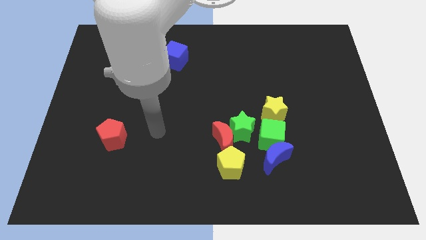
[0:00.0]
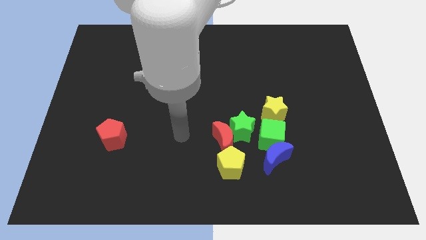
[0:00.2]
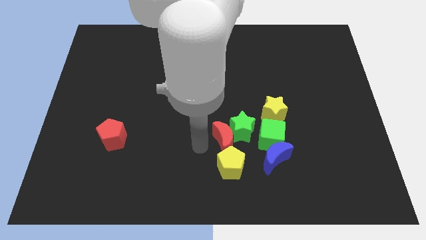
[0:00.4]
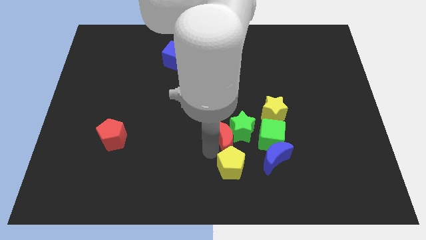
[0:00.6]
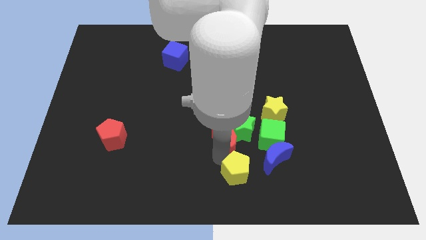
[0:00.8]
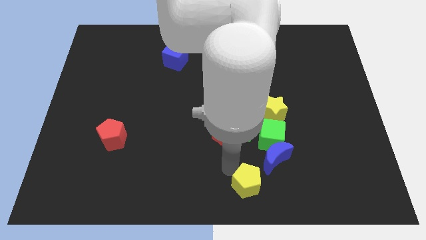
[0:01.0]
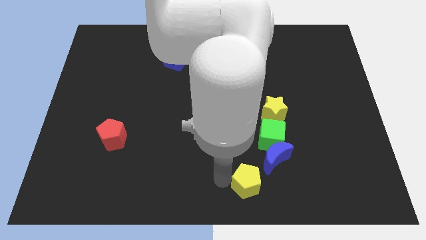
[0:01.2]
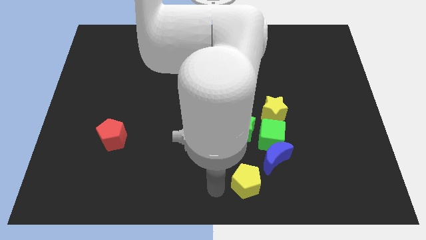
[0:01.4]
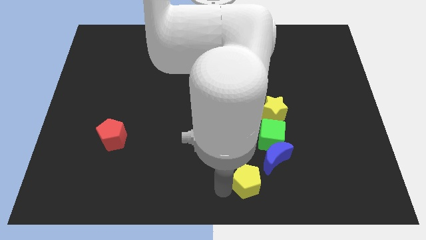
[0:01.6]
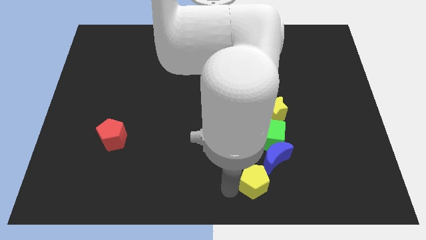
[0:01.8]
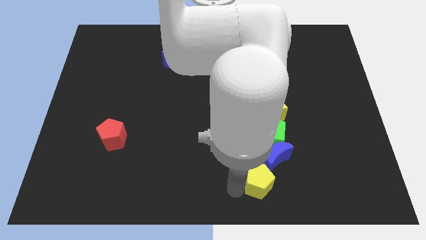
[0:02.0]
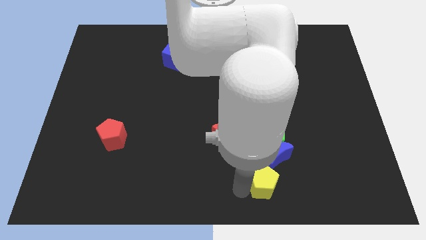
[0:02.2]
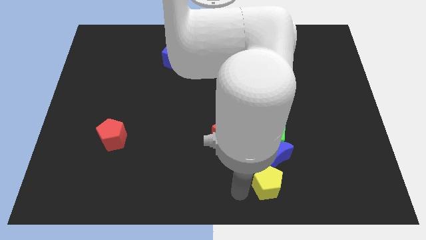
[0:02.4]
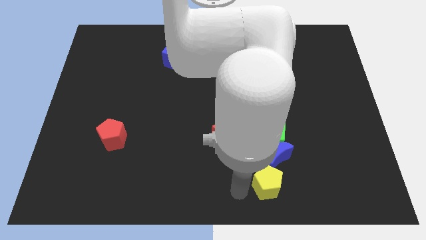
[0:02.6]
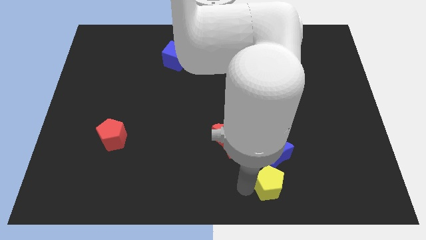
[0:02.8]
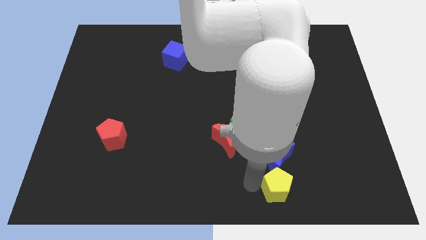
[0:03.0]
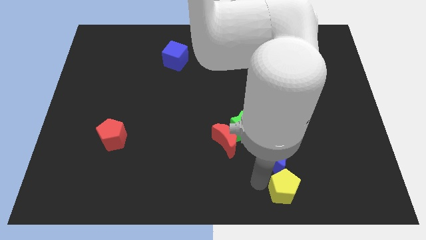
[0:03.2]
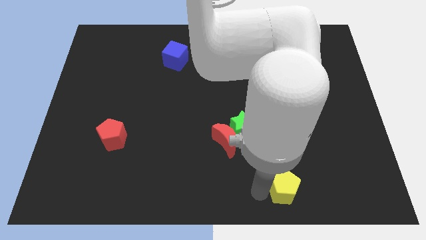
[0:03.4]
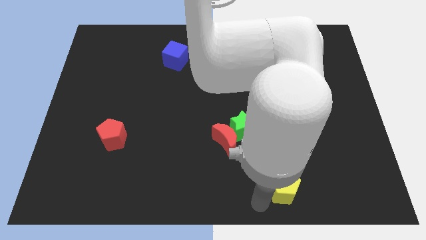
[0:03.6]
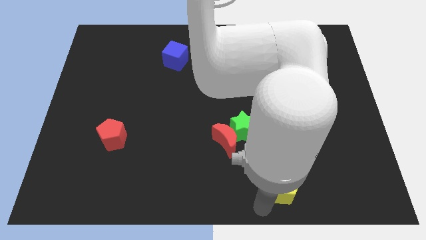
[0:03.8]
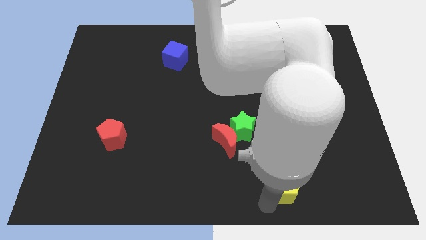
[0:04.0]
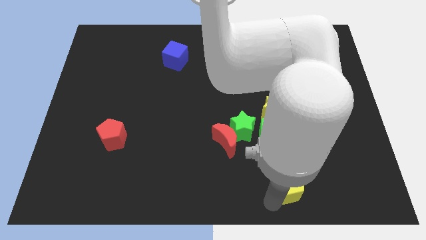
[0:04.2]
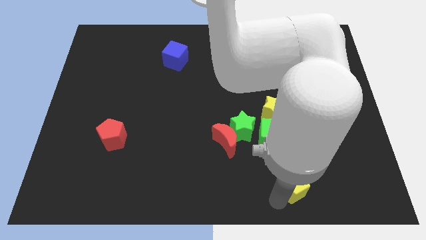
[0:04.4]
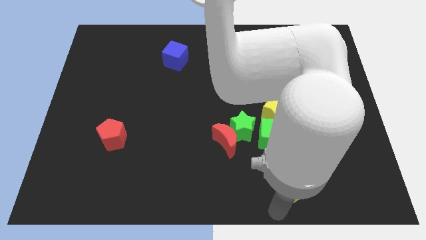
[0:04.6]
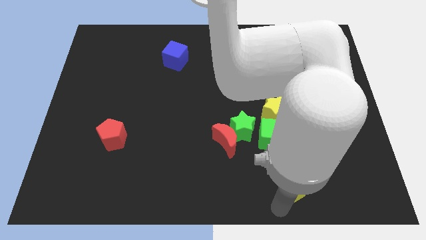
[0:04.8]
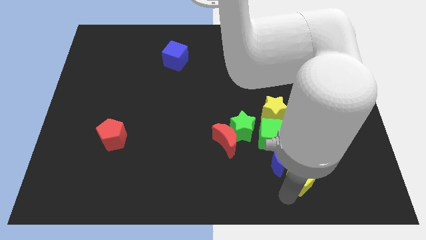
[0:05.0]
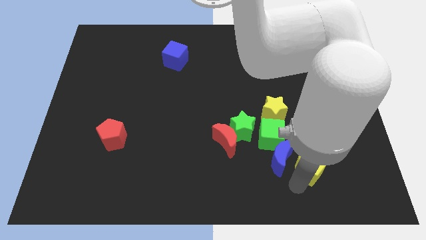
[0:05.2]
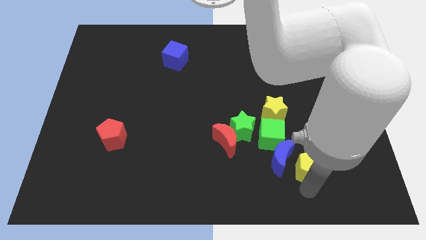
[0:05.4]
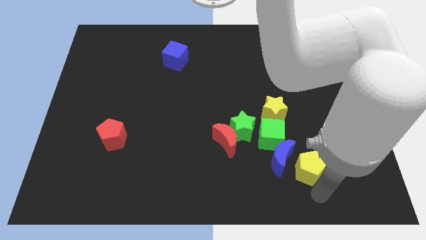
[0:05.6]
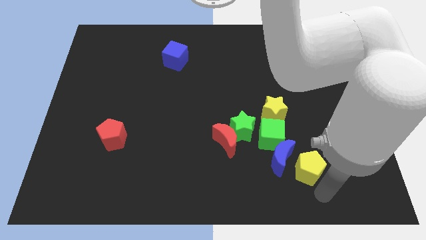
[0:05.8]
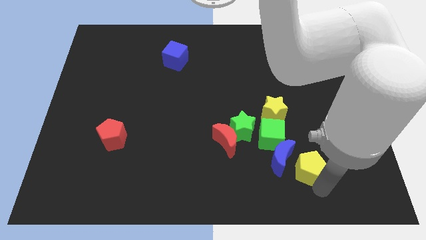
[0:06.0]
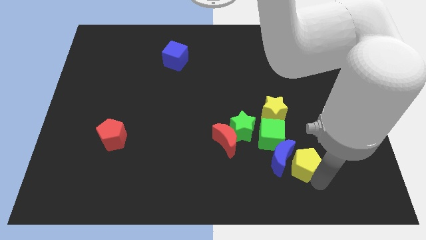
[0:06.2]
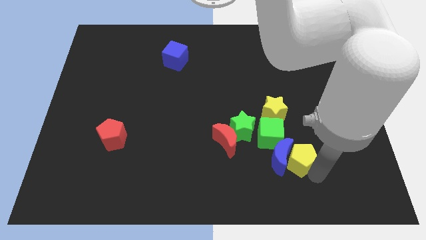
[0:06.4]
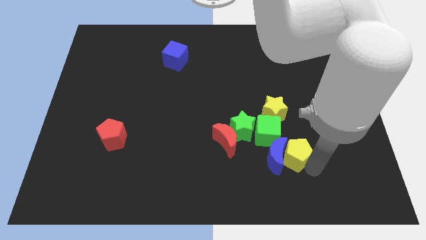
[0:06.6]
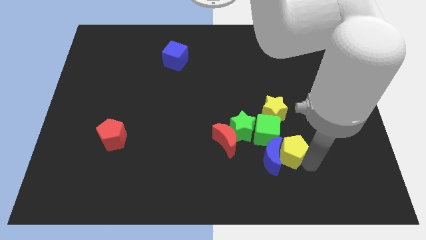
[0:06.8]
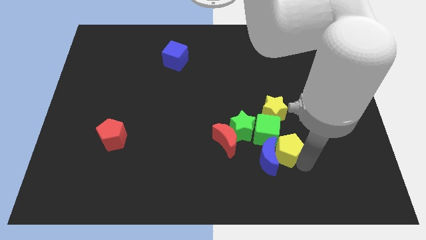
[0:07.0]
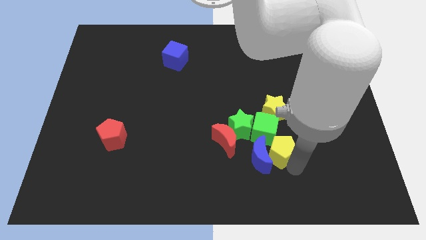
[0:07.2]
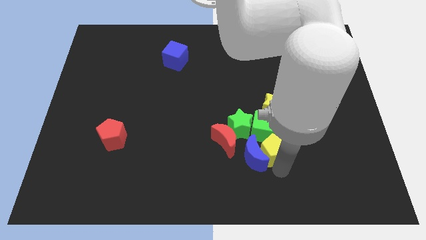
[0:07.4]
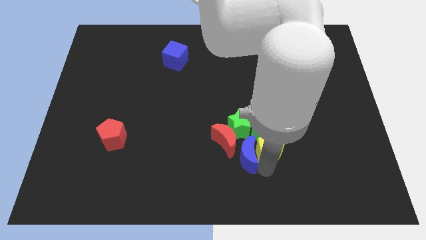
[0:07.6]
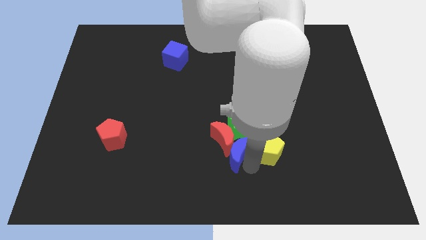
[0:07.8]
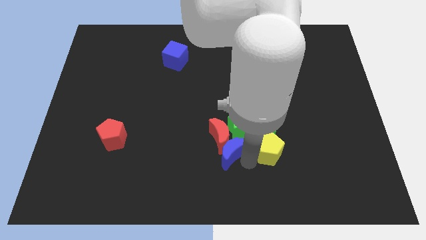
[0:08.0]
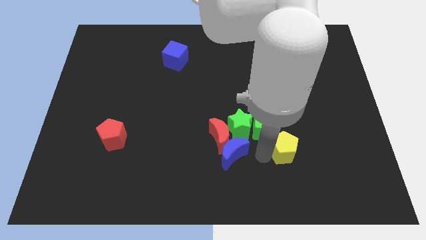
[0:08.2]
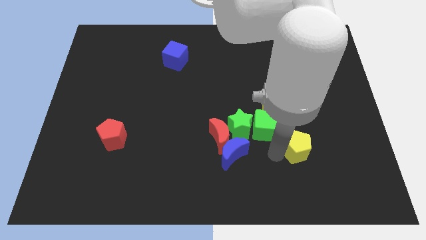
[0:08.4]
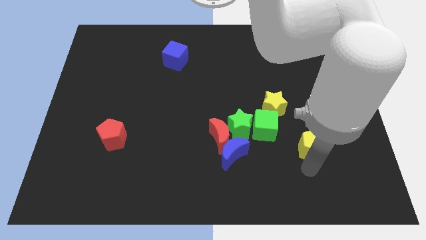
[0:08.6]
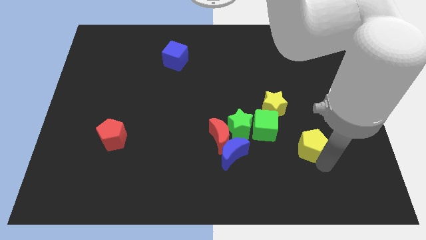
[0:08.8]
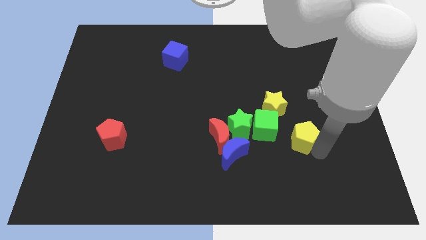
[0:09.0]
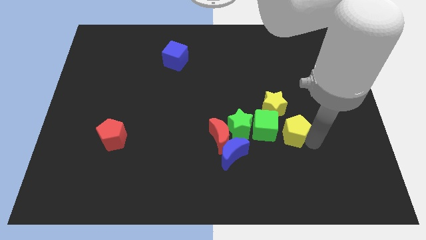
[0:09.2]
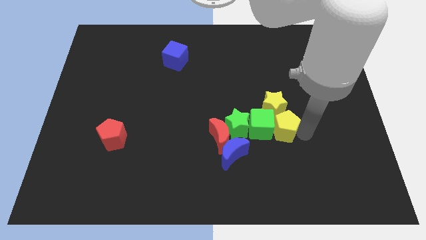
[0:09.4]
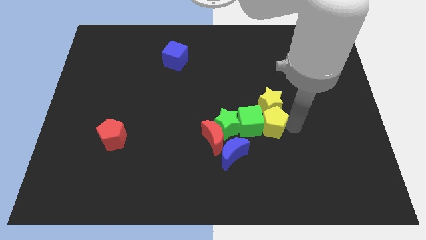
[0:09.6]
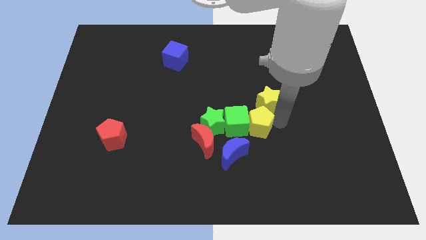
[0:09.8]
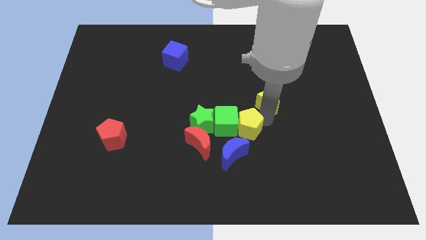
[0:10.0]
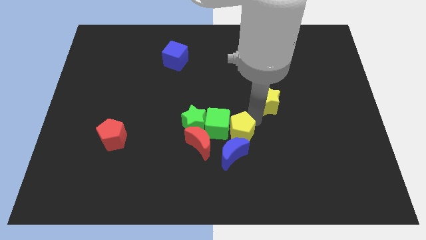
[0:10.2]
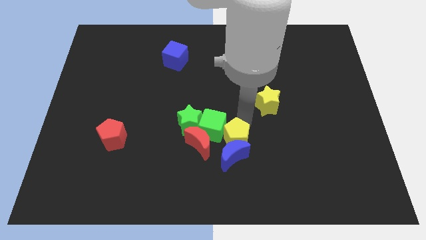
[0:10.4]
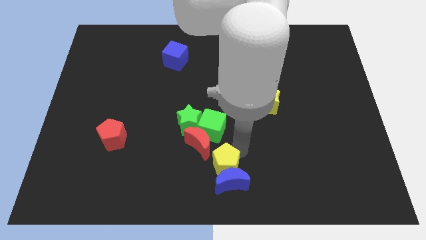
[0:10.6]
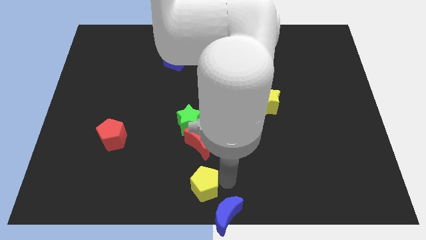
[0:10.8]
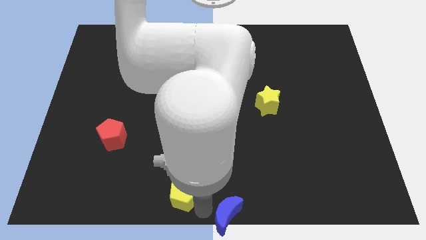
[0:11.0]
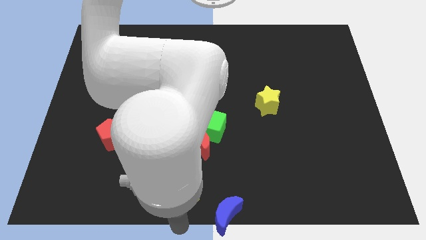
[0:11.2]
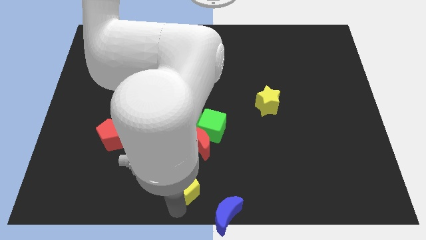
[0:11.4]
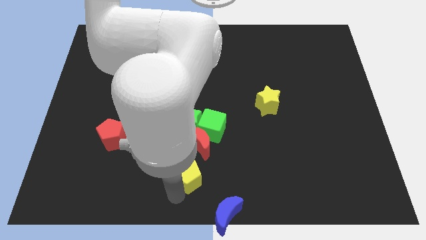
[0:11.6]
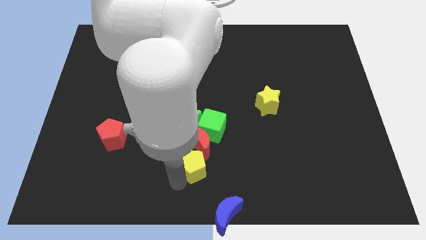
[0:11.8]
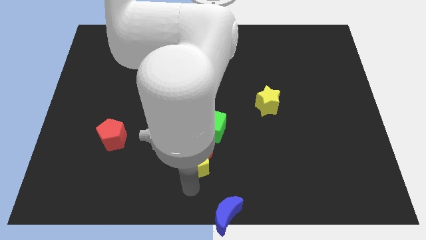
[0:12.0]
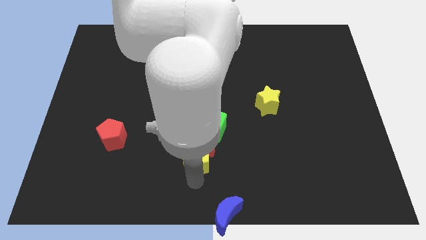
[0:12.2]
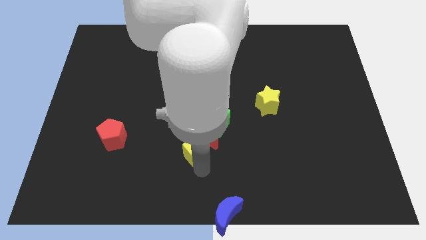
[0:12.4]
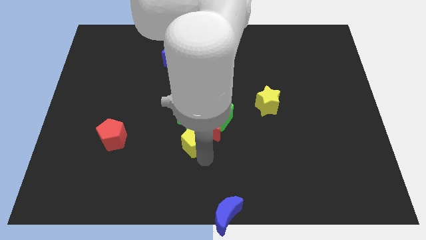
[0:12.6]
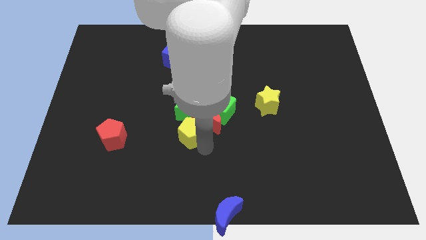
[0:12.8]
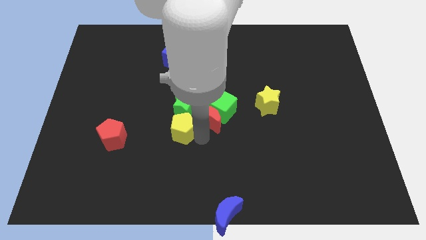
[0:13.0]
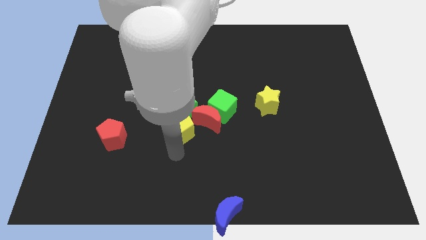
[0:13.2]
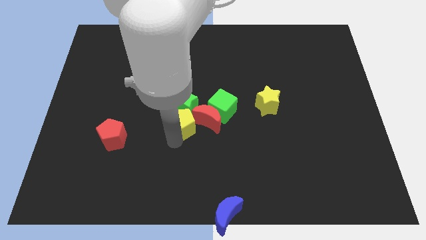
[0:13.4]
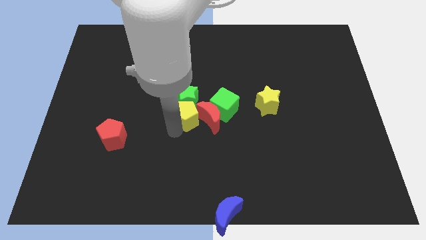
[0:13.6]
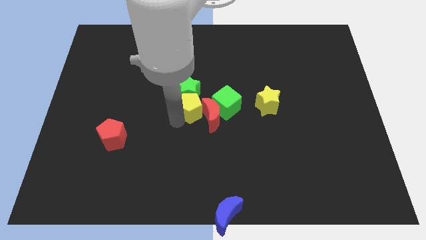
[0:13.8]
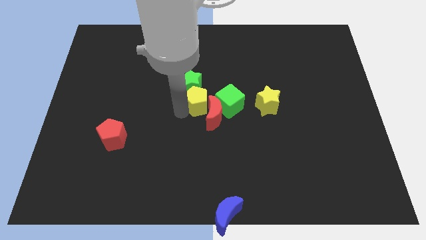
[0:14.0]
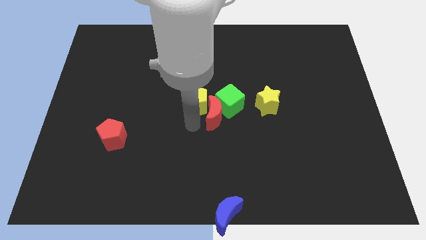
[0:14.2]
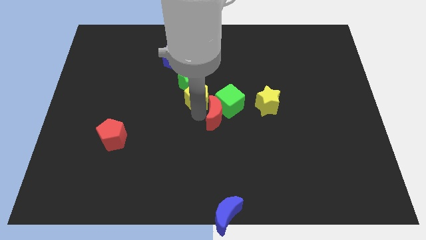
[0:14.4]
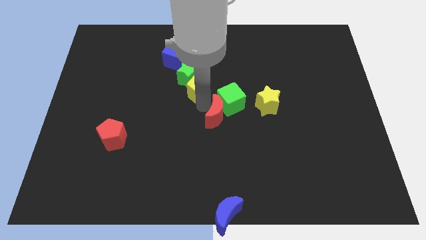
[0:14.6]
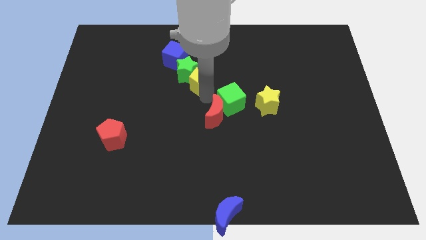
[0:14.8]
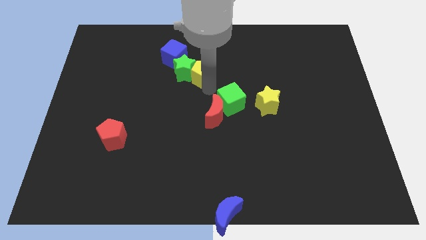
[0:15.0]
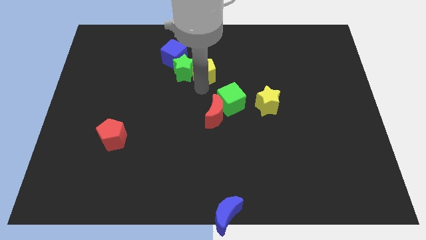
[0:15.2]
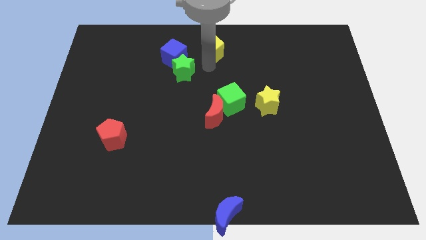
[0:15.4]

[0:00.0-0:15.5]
push the yellow pentagon to the top
